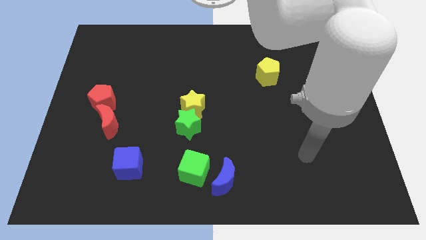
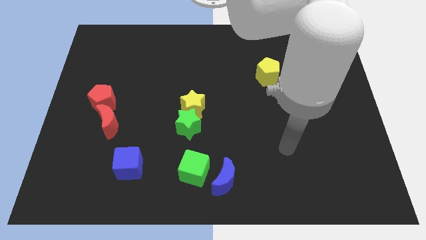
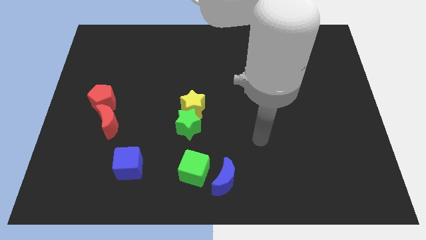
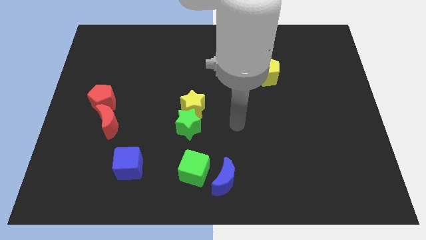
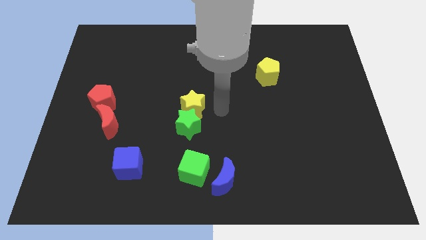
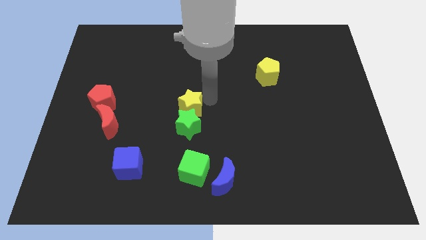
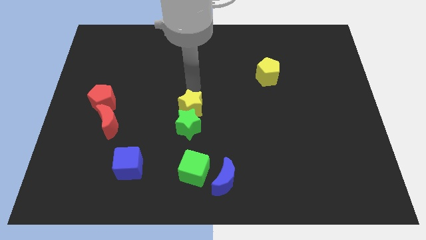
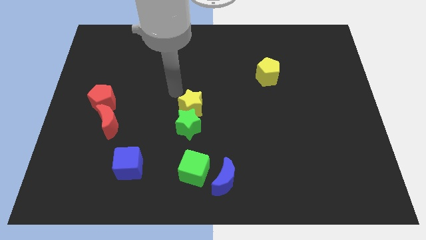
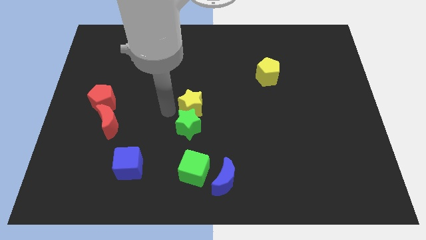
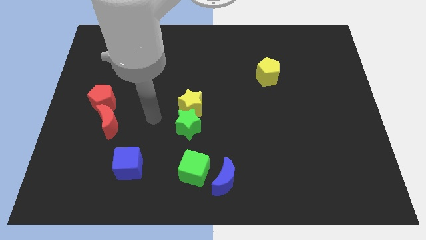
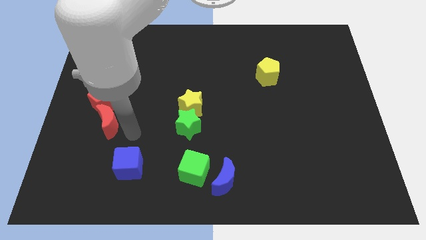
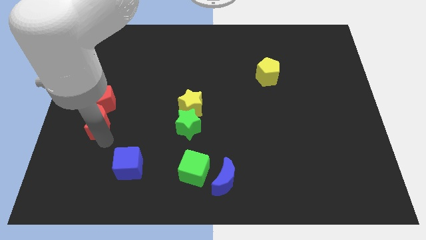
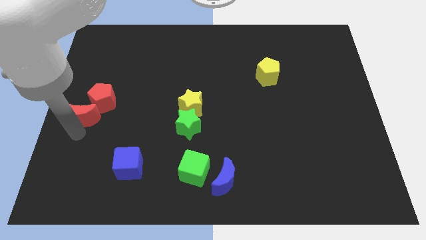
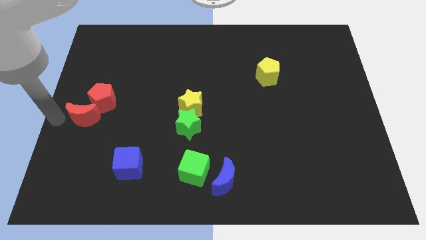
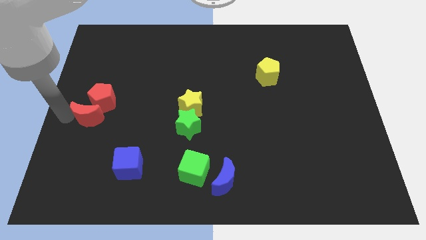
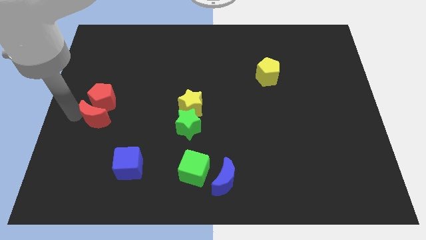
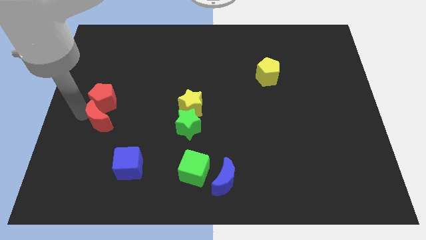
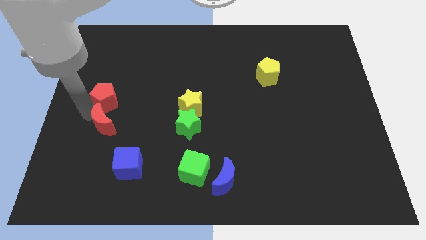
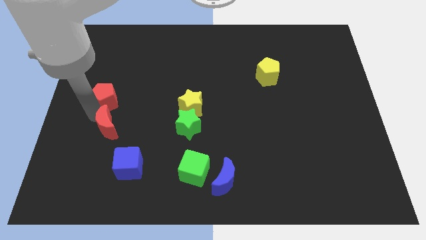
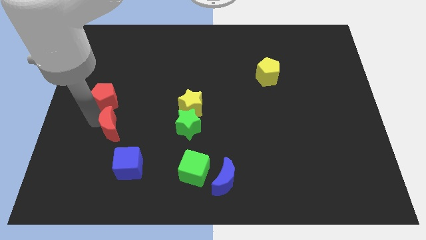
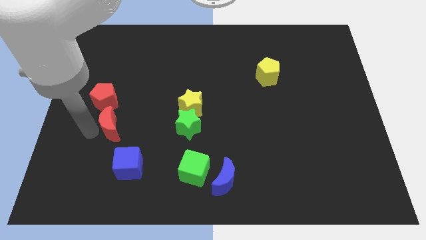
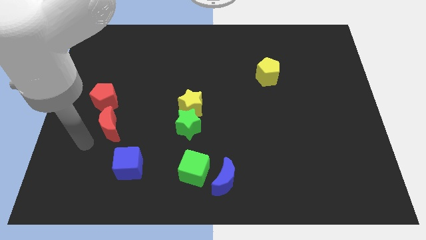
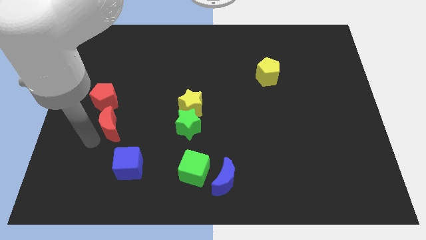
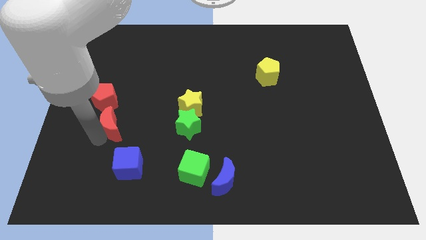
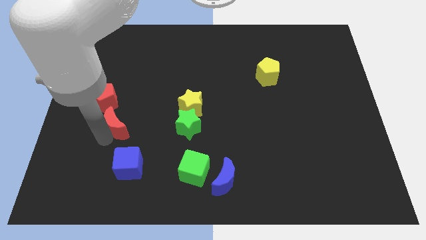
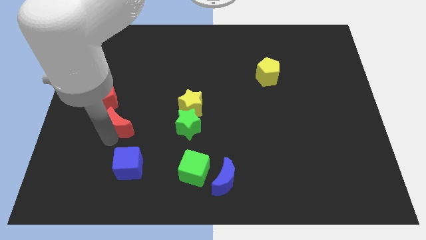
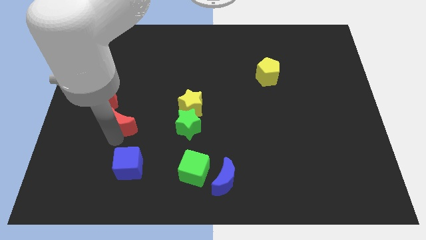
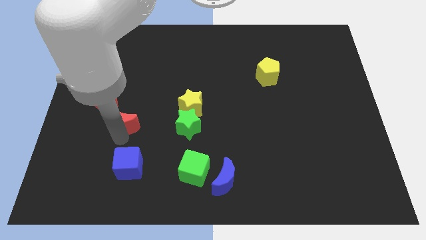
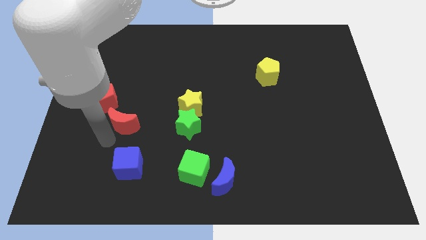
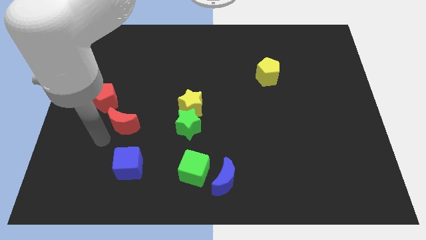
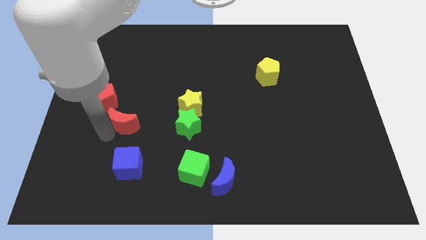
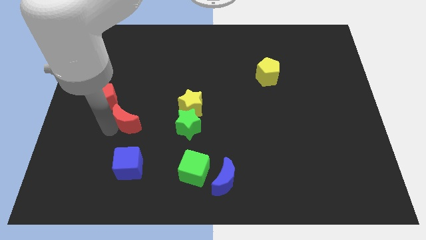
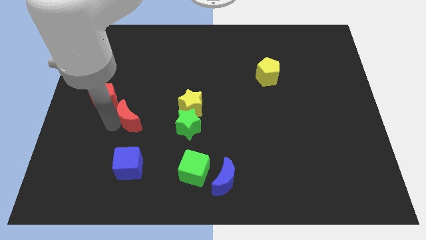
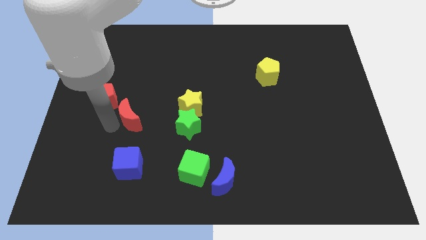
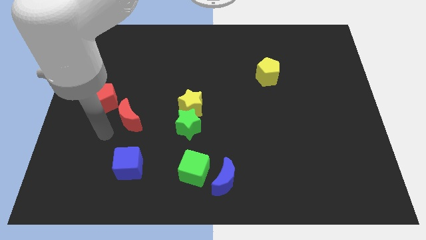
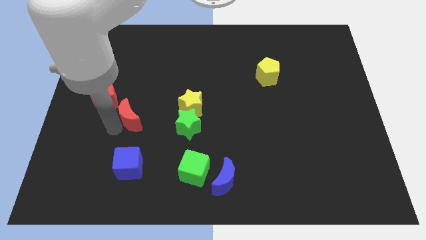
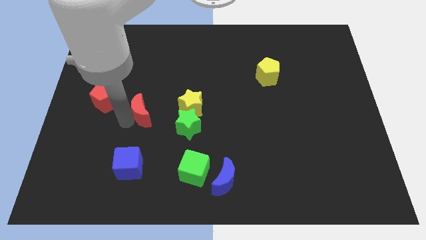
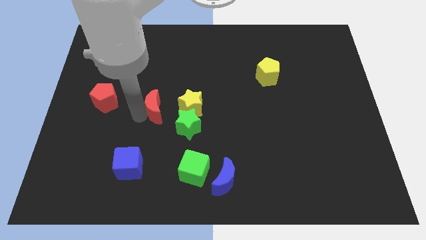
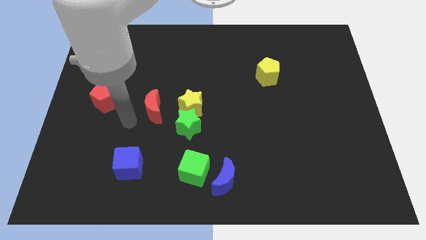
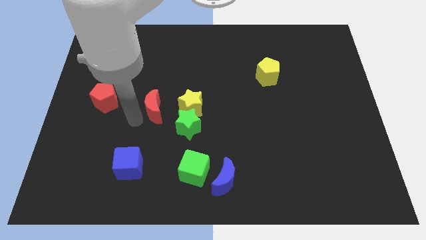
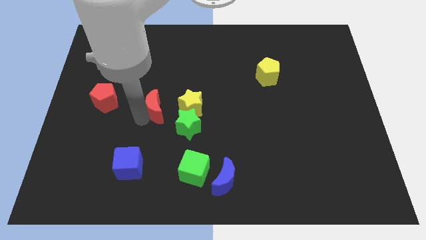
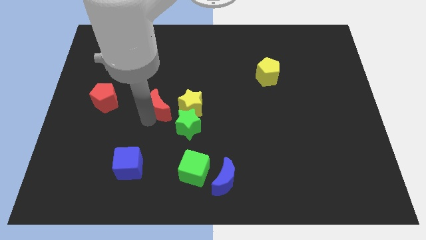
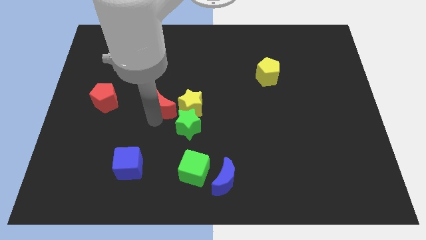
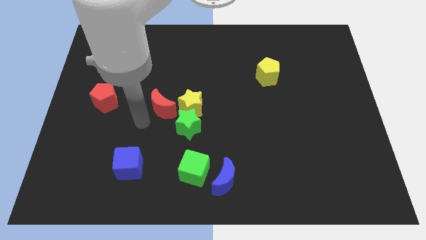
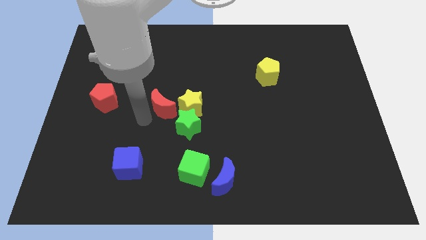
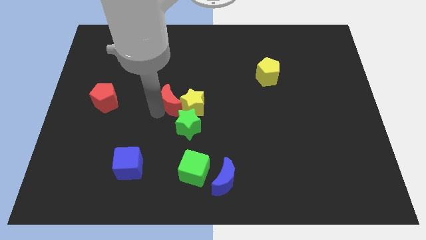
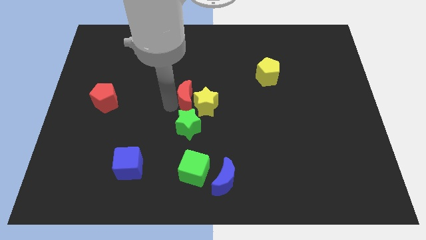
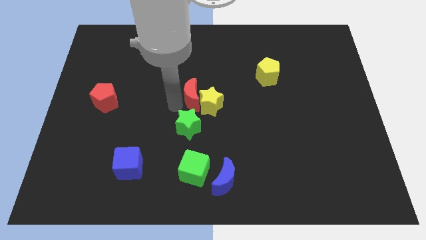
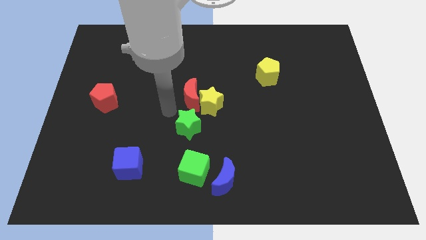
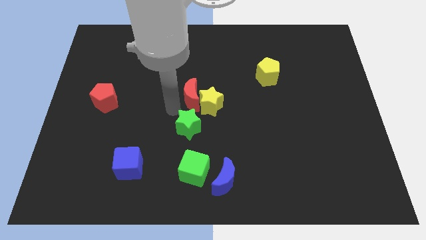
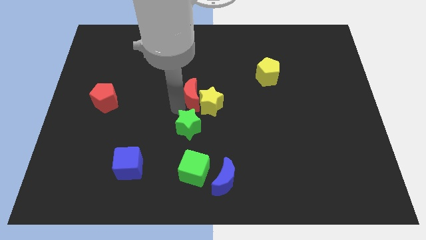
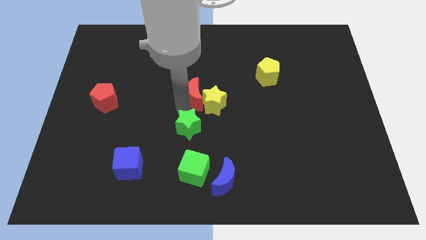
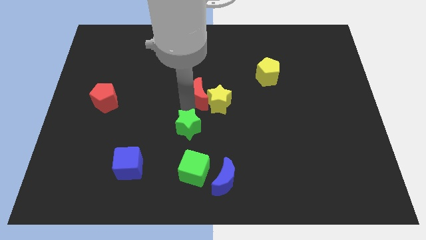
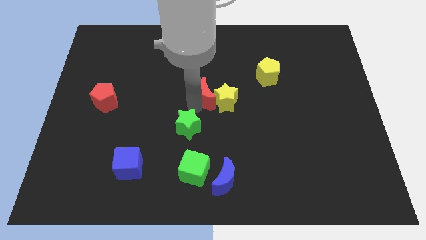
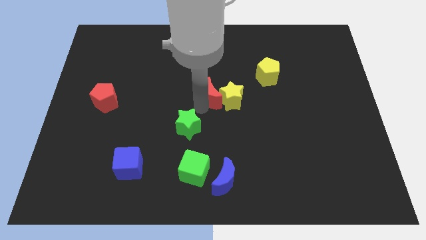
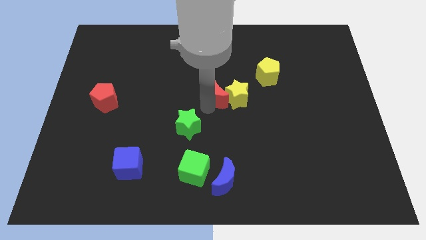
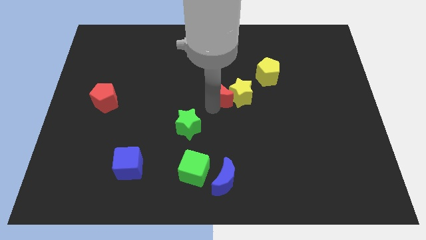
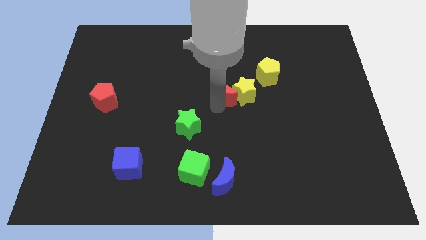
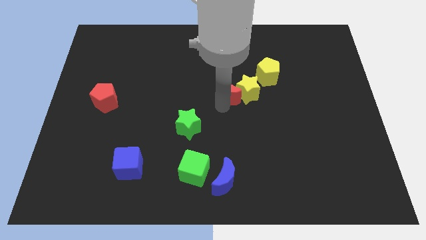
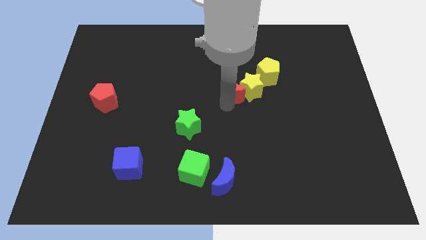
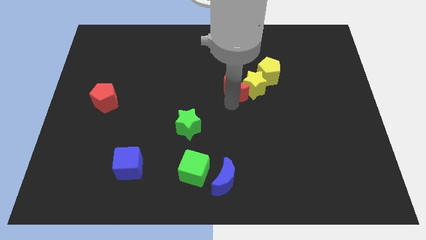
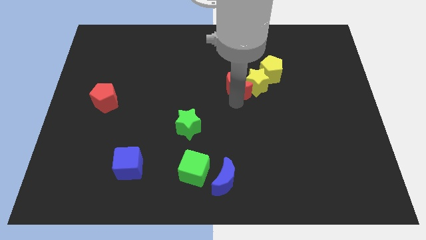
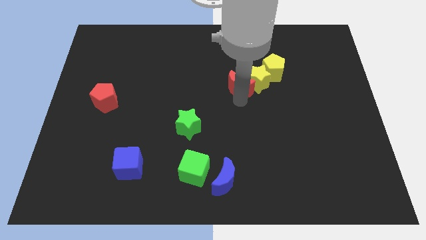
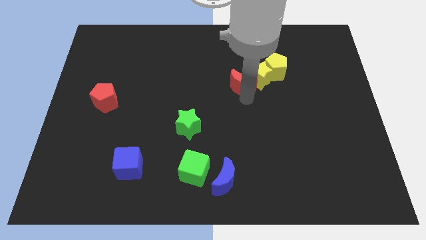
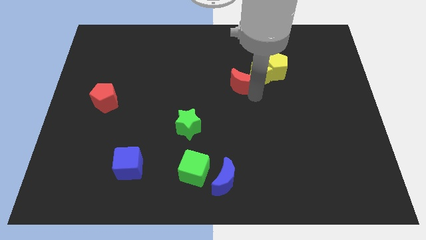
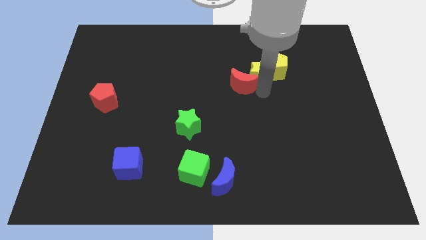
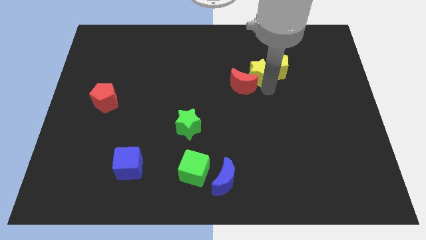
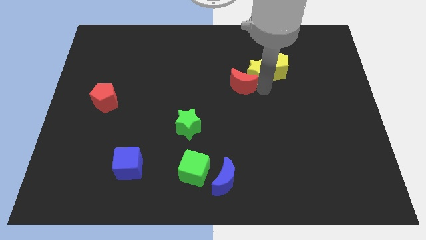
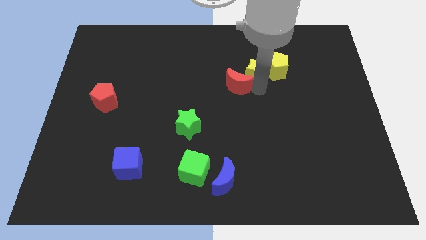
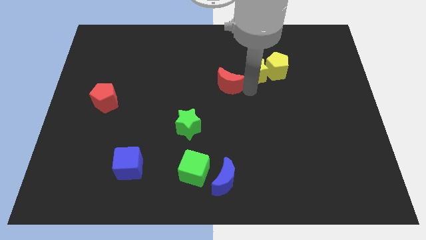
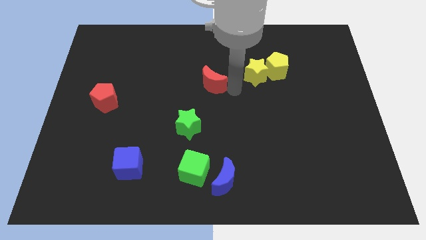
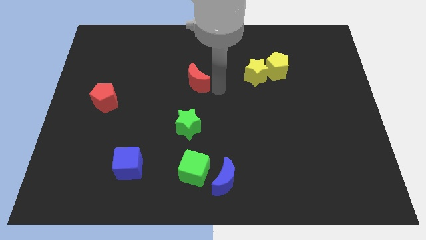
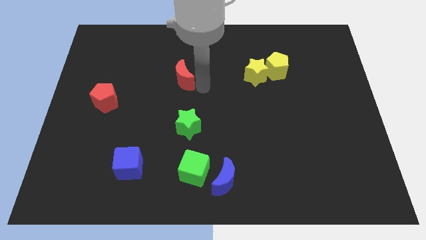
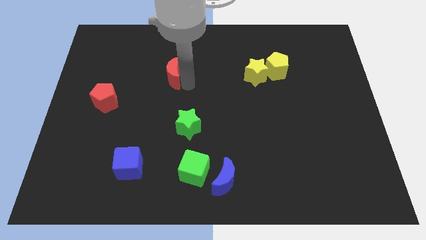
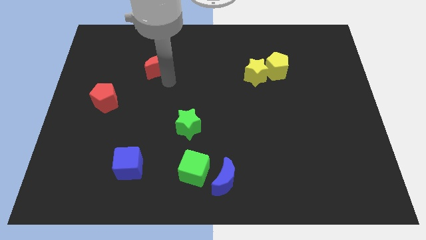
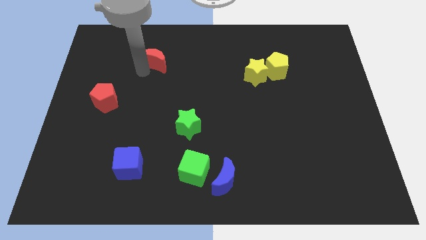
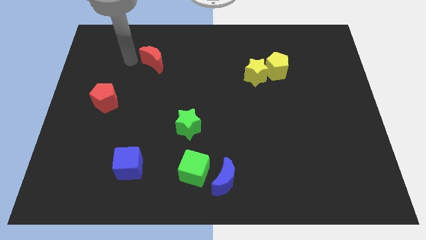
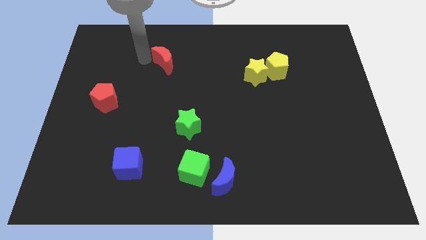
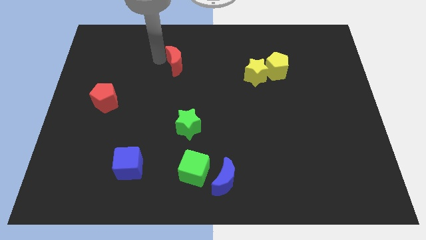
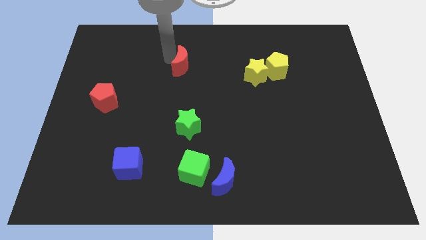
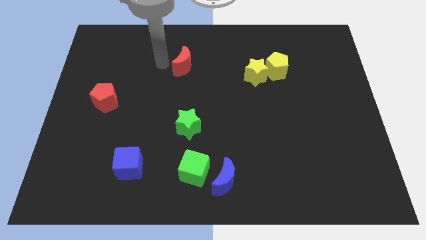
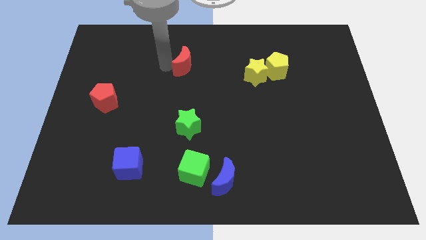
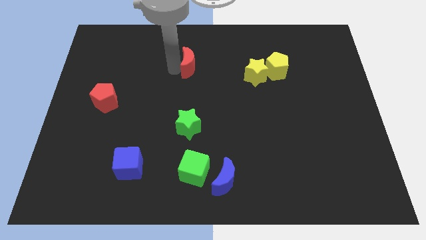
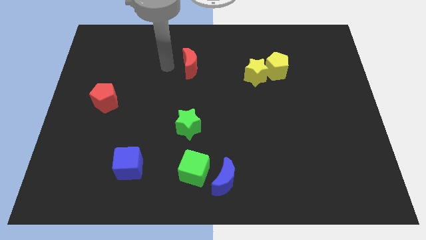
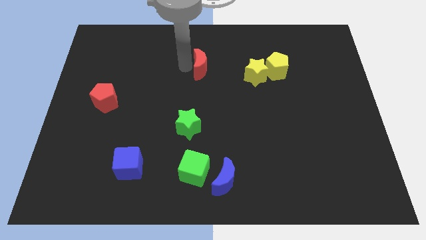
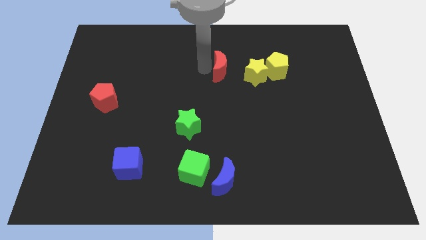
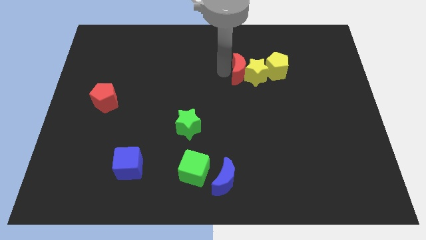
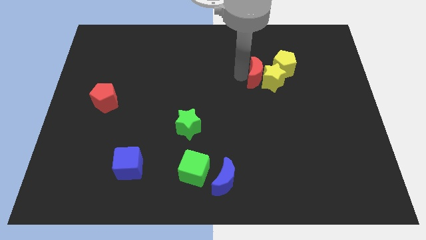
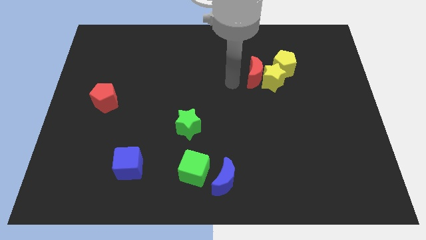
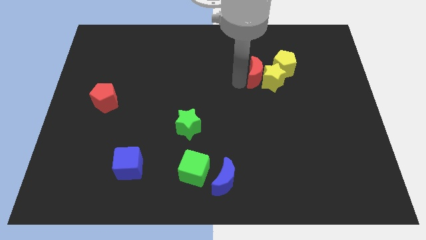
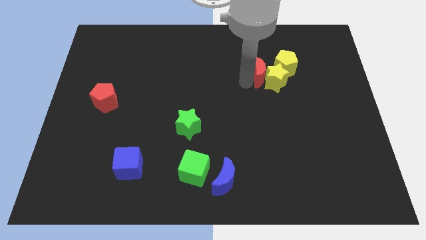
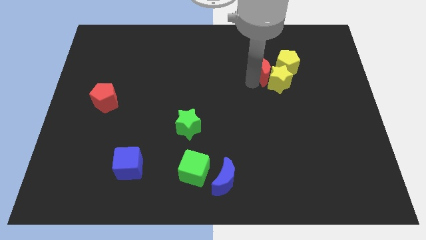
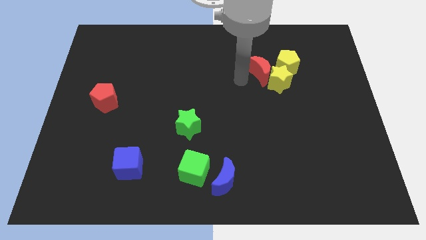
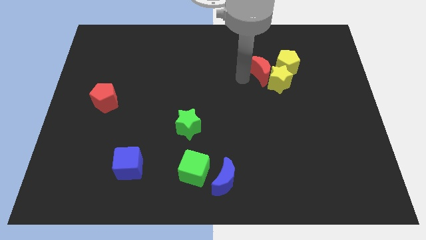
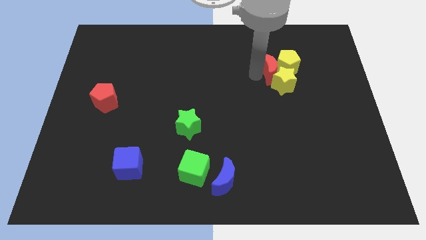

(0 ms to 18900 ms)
push the red moon close to the yellow pentagon
